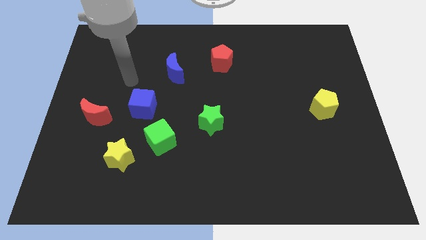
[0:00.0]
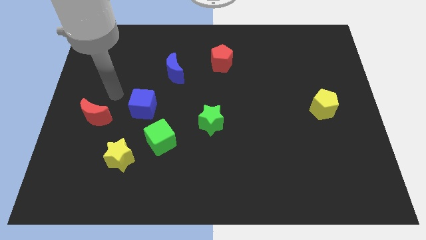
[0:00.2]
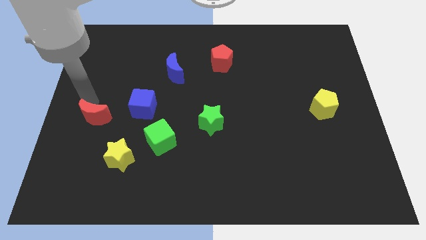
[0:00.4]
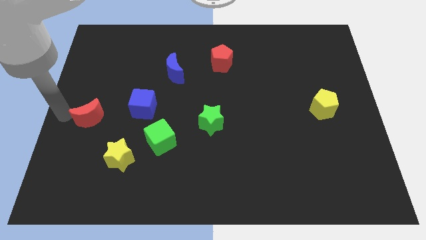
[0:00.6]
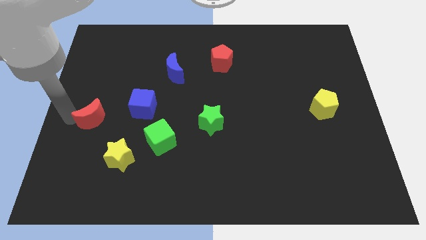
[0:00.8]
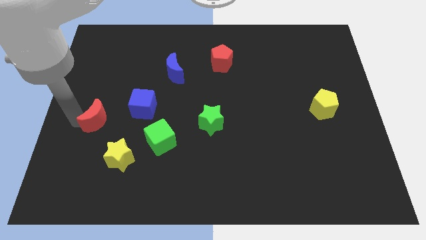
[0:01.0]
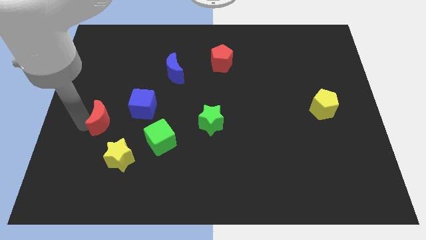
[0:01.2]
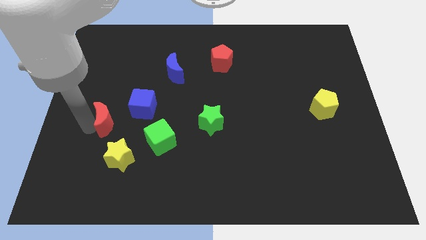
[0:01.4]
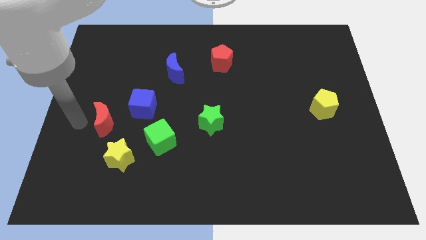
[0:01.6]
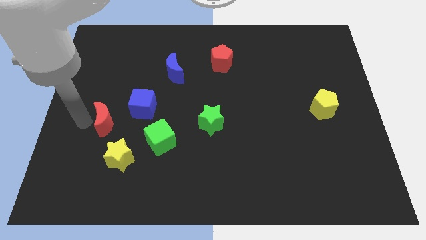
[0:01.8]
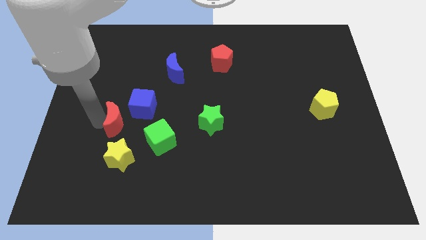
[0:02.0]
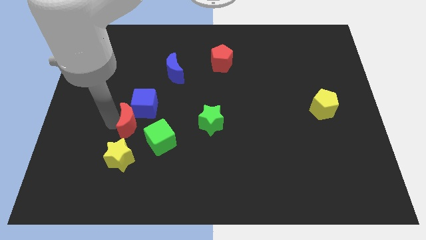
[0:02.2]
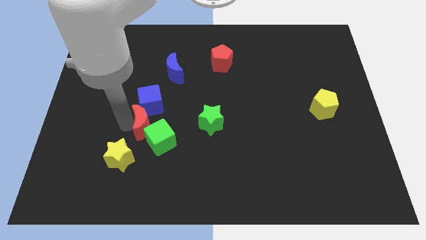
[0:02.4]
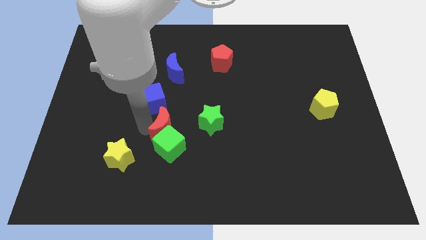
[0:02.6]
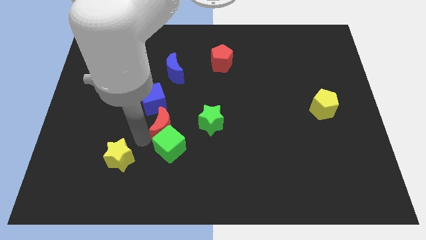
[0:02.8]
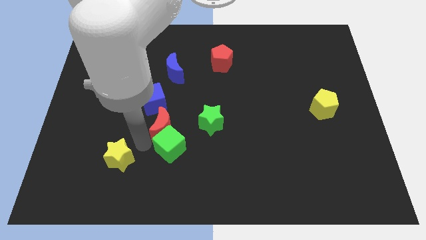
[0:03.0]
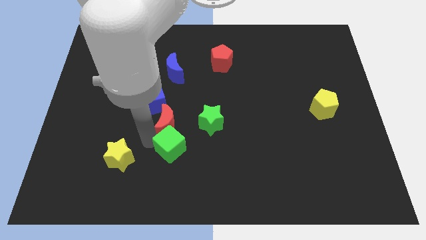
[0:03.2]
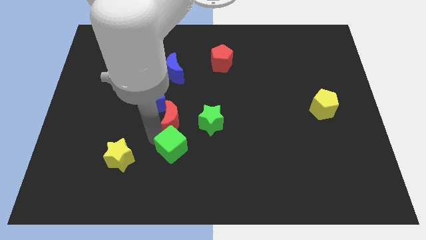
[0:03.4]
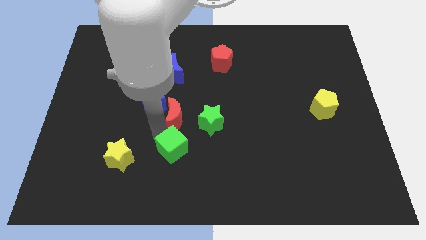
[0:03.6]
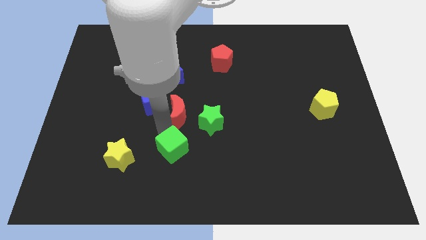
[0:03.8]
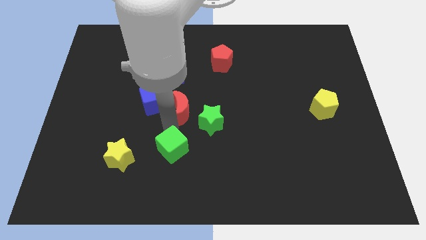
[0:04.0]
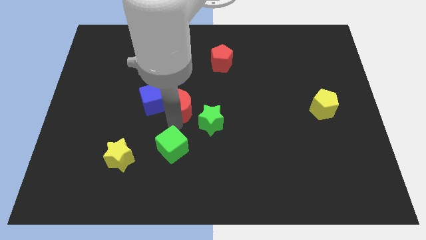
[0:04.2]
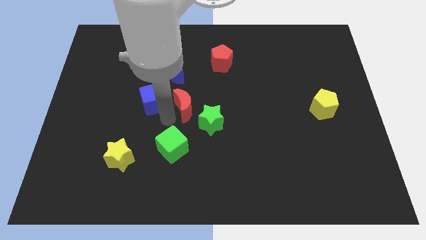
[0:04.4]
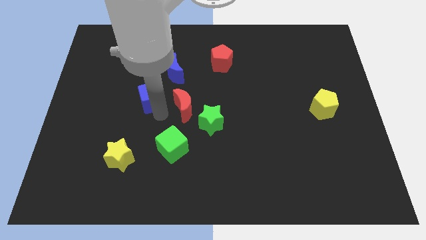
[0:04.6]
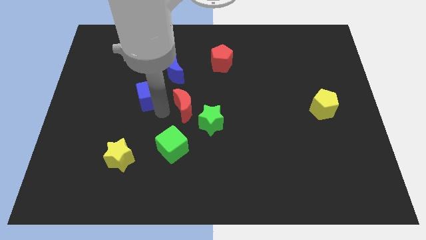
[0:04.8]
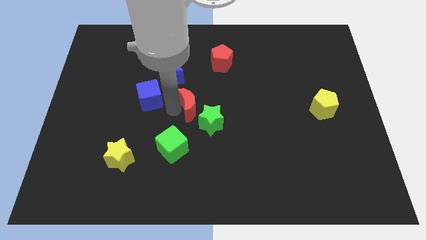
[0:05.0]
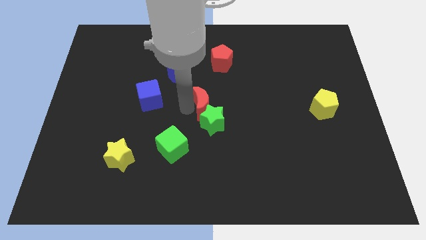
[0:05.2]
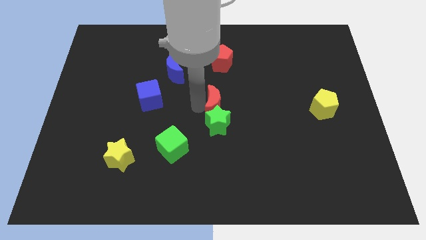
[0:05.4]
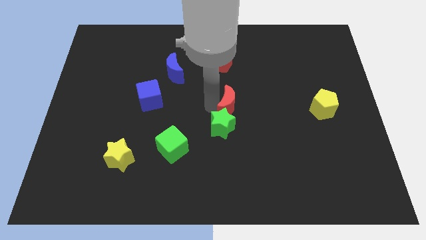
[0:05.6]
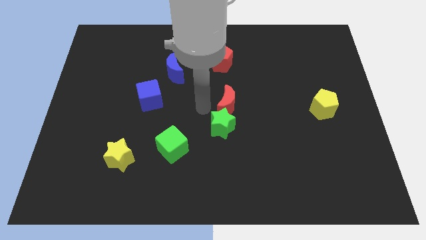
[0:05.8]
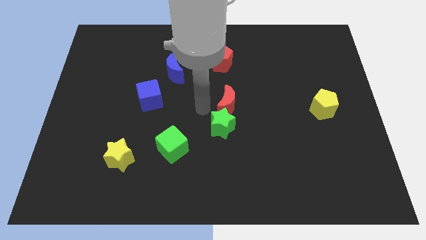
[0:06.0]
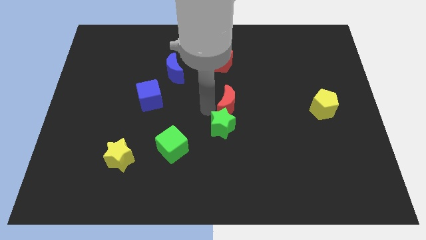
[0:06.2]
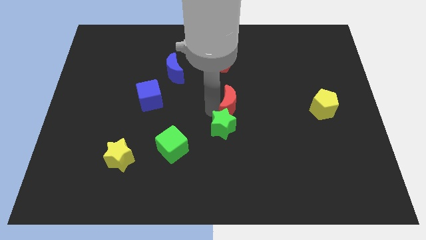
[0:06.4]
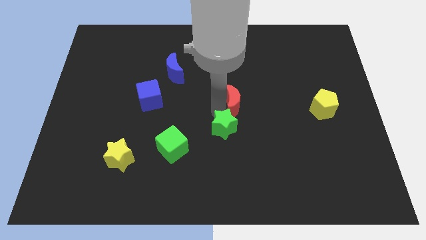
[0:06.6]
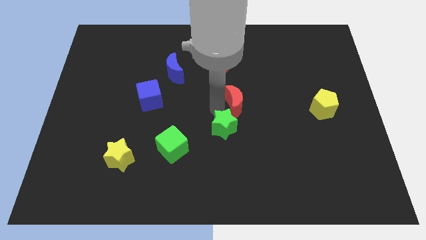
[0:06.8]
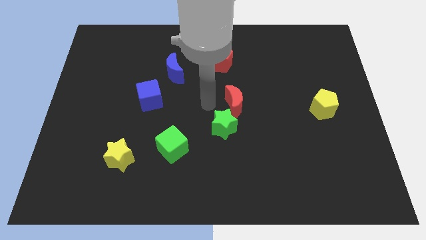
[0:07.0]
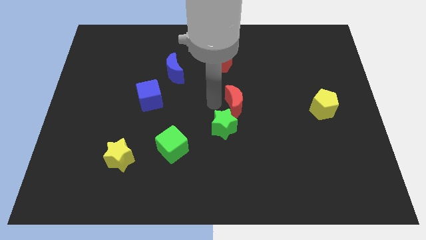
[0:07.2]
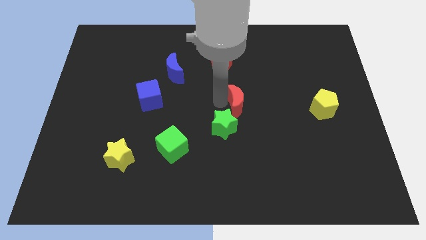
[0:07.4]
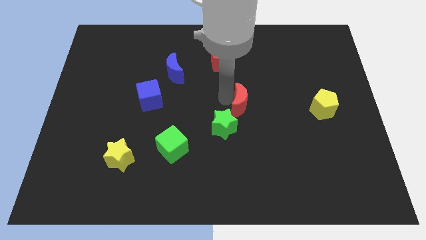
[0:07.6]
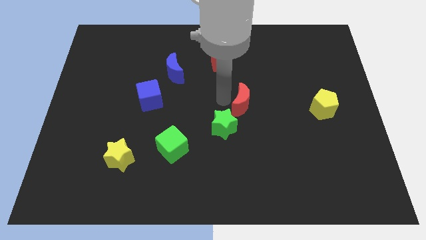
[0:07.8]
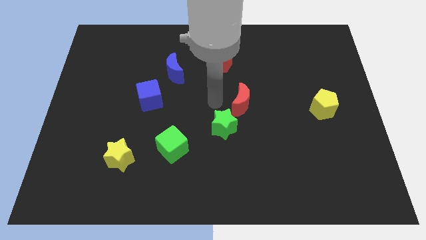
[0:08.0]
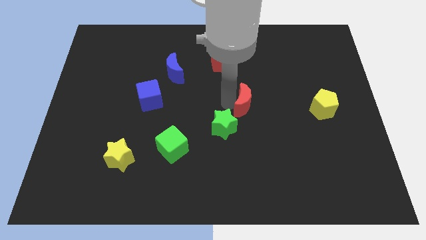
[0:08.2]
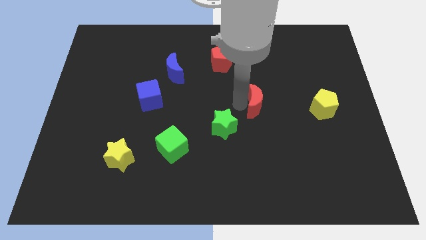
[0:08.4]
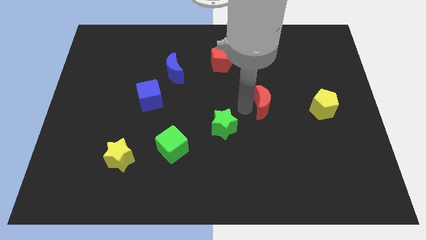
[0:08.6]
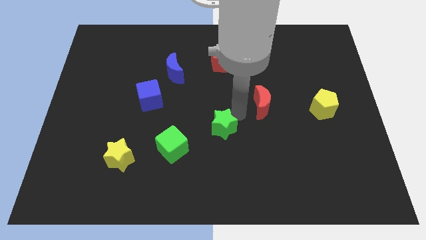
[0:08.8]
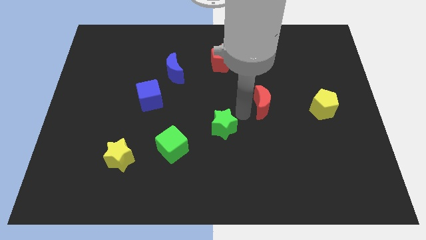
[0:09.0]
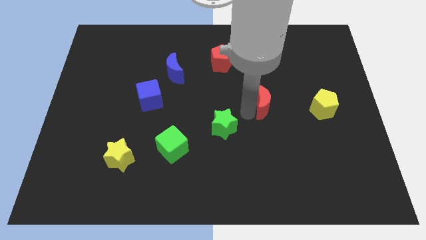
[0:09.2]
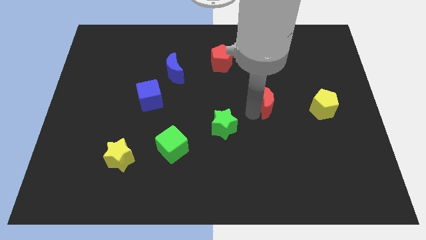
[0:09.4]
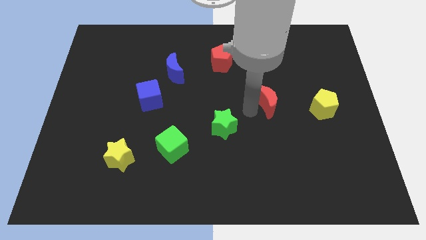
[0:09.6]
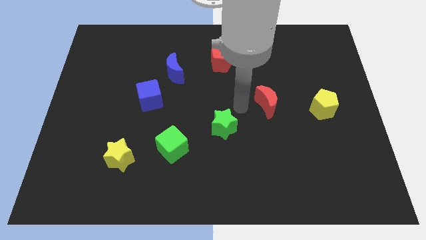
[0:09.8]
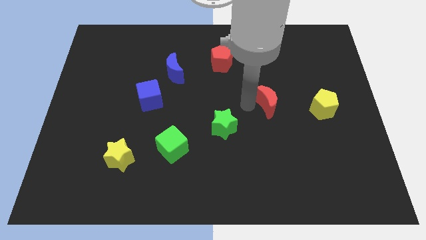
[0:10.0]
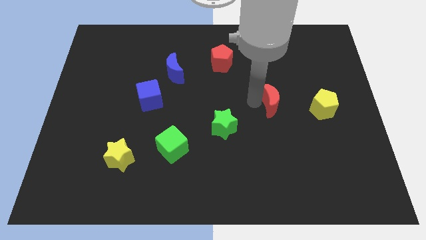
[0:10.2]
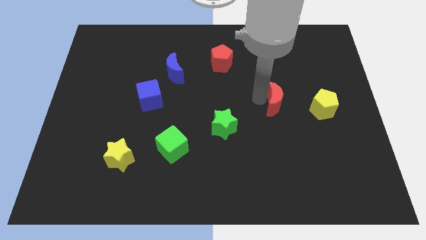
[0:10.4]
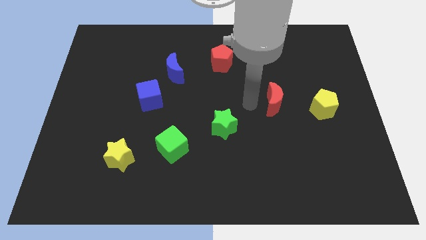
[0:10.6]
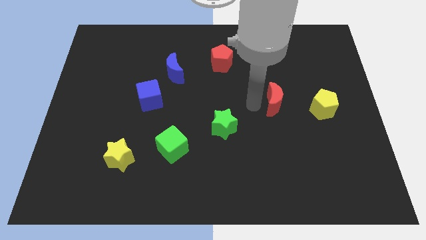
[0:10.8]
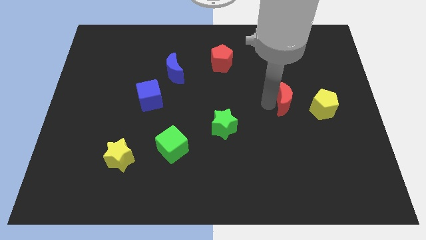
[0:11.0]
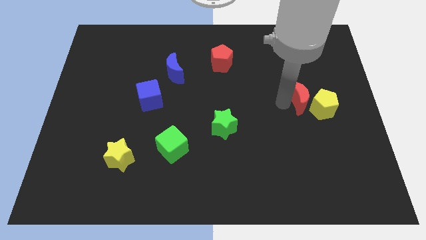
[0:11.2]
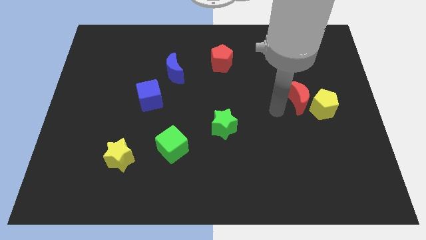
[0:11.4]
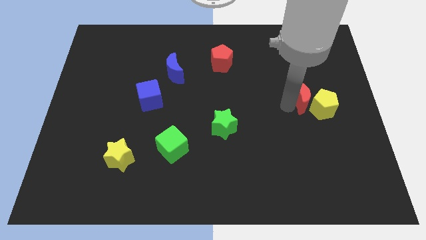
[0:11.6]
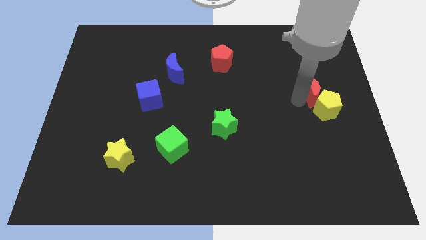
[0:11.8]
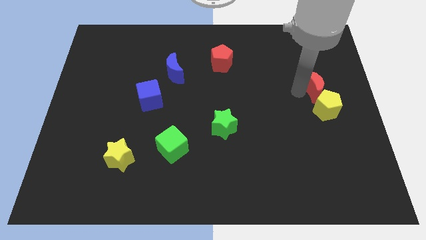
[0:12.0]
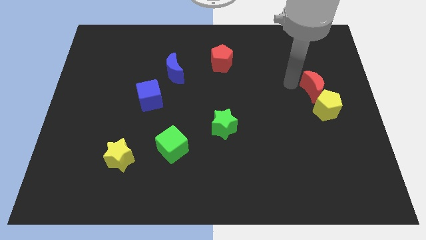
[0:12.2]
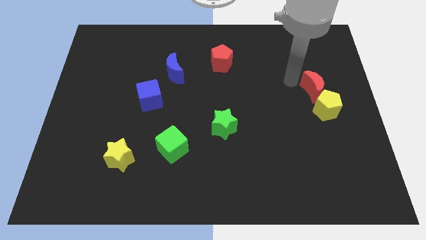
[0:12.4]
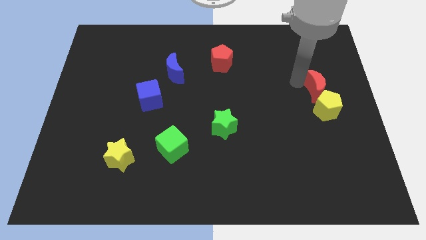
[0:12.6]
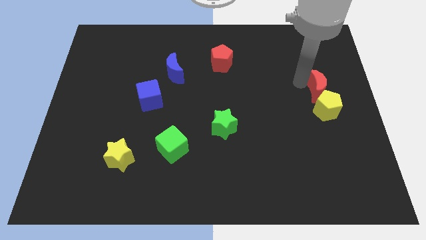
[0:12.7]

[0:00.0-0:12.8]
slide the red moon to the center right
